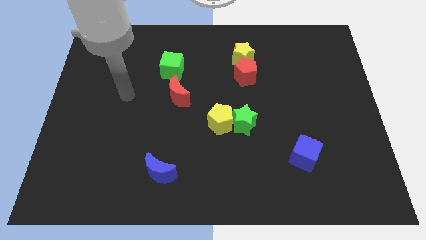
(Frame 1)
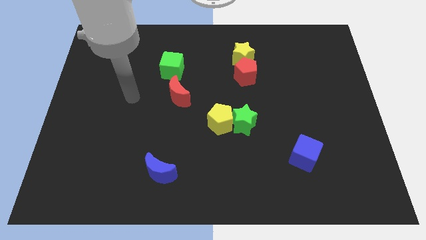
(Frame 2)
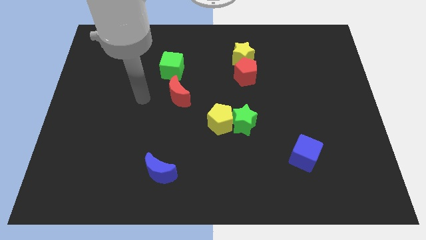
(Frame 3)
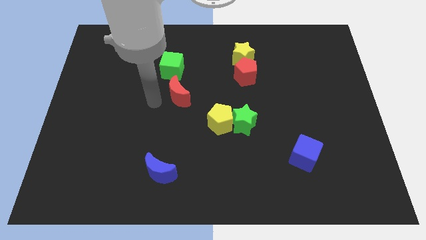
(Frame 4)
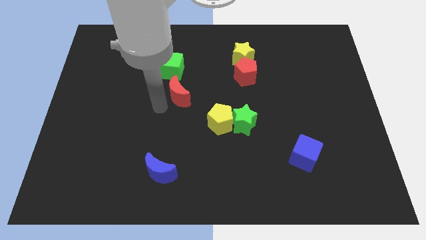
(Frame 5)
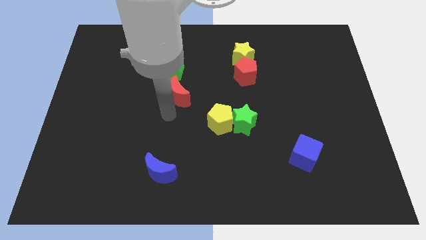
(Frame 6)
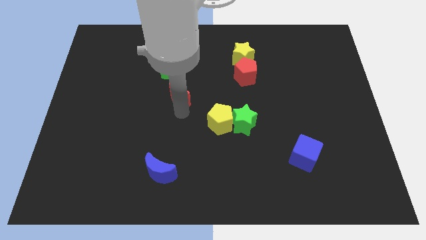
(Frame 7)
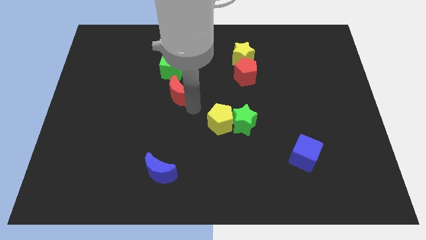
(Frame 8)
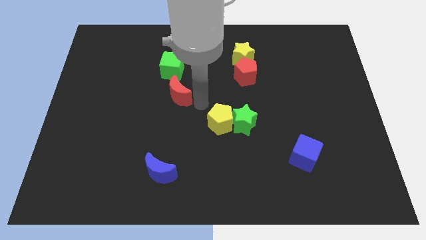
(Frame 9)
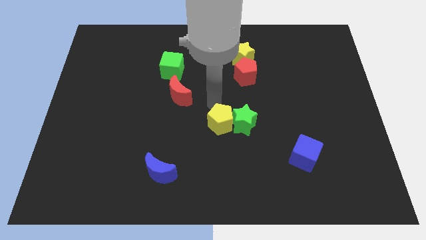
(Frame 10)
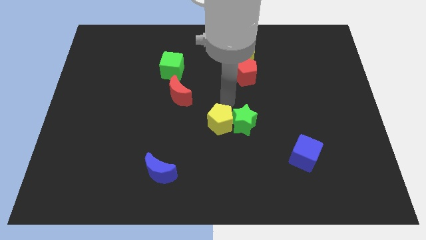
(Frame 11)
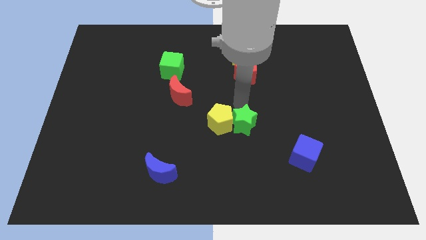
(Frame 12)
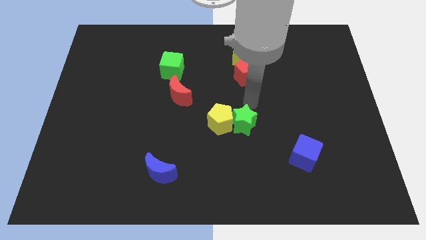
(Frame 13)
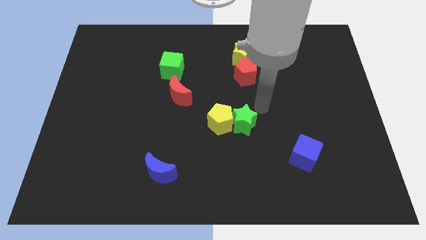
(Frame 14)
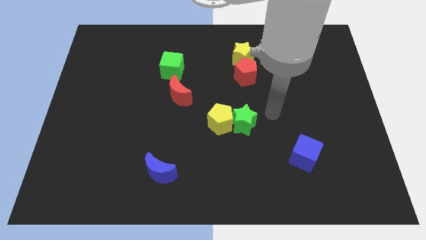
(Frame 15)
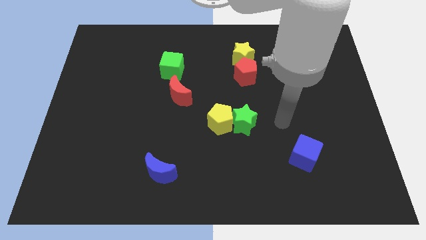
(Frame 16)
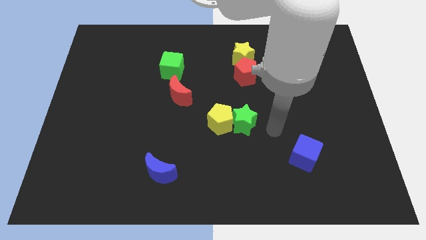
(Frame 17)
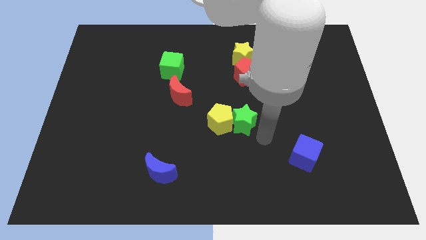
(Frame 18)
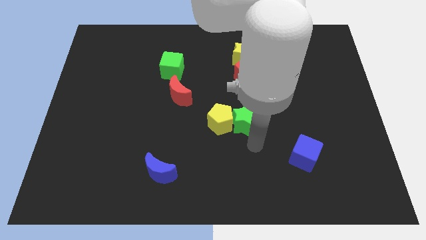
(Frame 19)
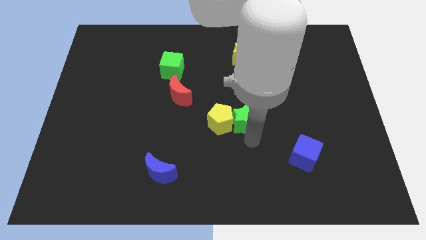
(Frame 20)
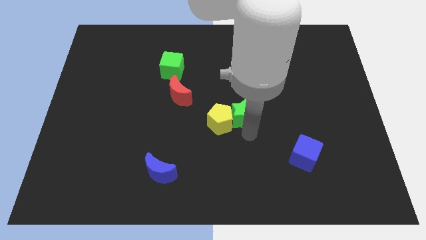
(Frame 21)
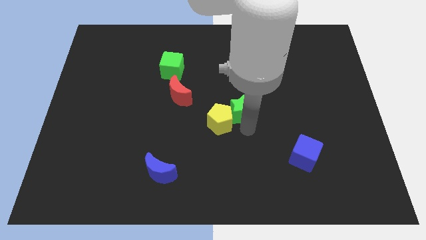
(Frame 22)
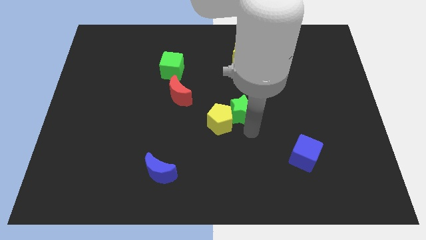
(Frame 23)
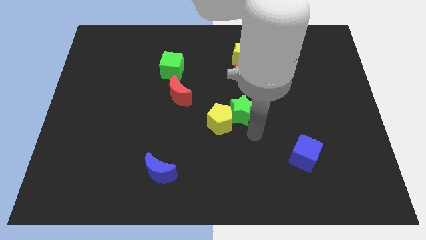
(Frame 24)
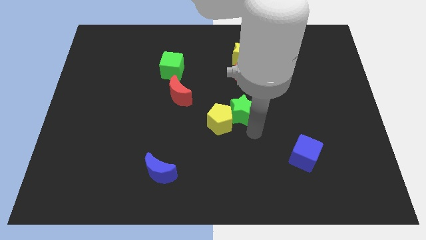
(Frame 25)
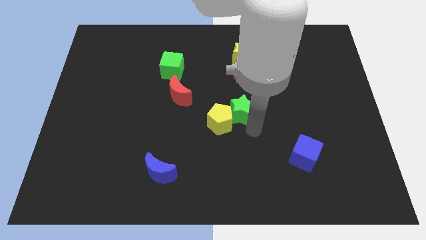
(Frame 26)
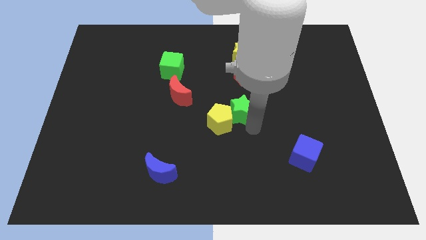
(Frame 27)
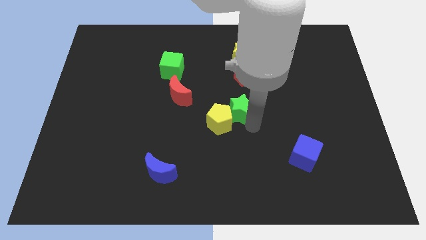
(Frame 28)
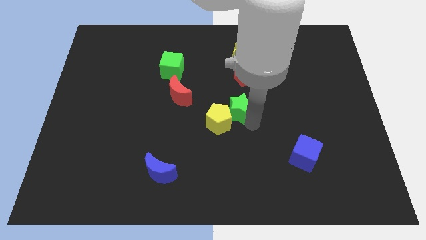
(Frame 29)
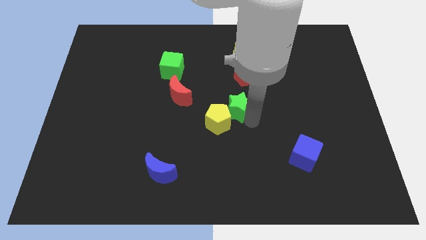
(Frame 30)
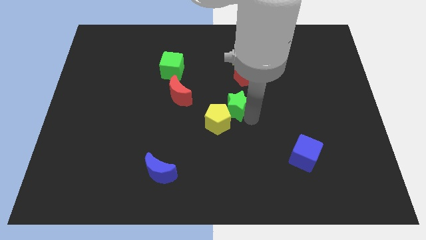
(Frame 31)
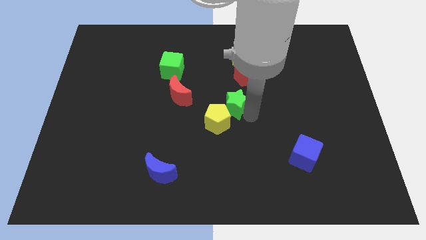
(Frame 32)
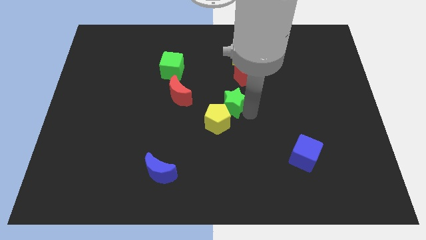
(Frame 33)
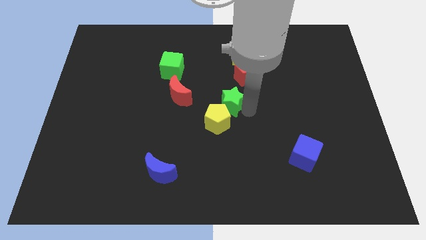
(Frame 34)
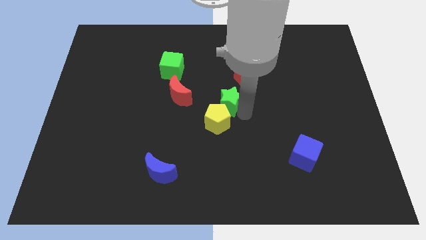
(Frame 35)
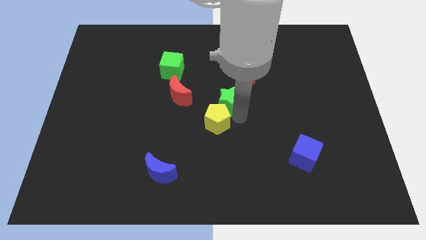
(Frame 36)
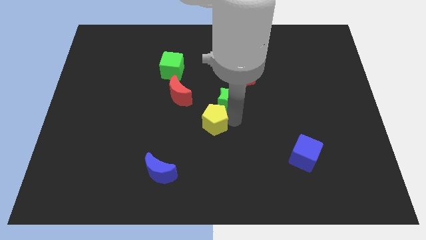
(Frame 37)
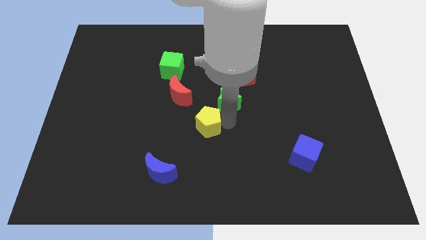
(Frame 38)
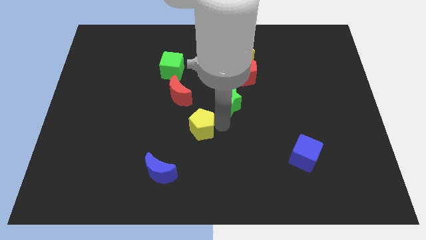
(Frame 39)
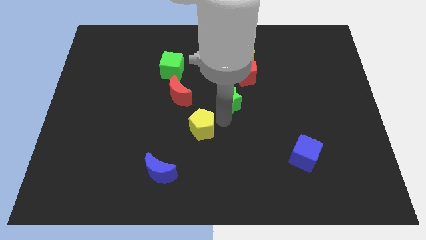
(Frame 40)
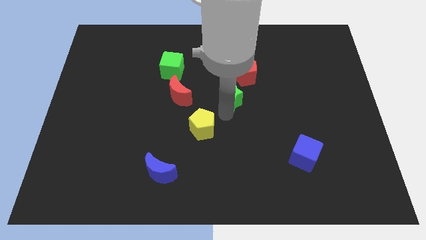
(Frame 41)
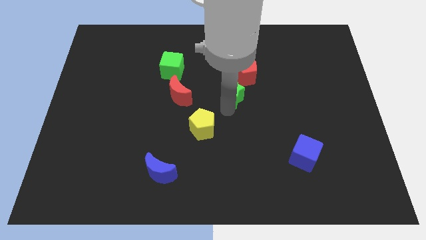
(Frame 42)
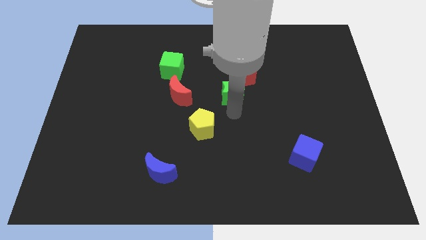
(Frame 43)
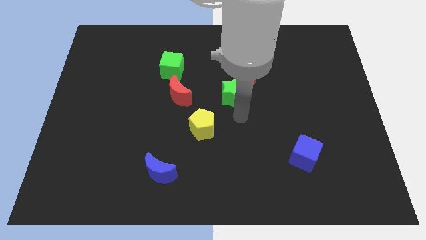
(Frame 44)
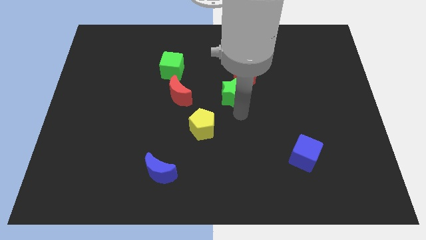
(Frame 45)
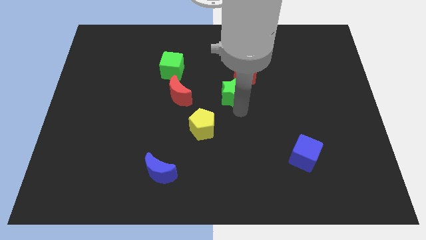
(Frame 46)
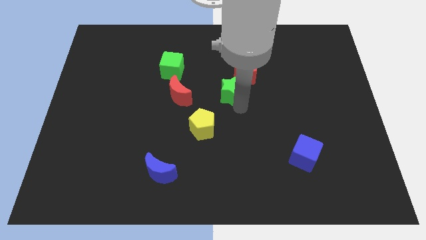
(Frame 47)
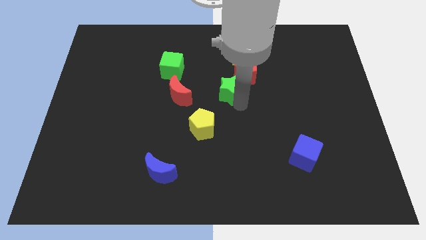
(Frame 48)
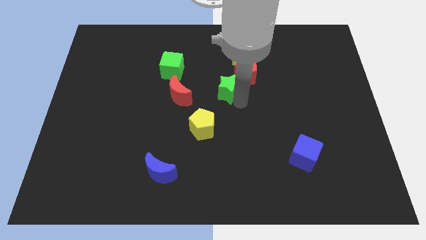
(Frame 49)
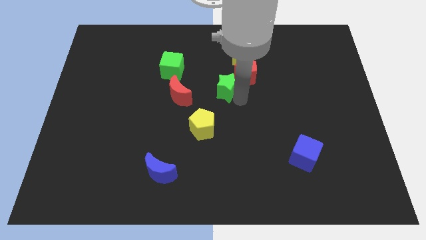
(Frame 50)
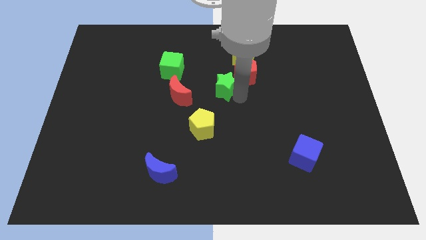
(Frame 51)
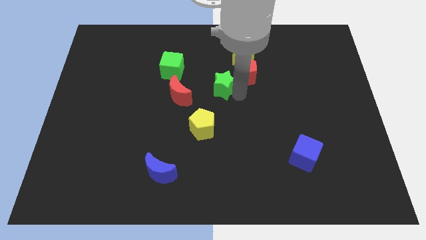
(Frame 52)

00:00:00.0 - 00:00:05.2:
slide the green star diagonally down and to the left of the yellow star

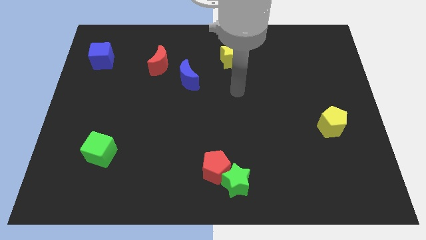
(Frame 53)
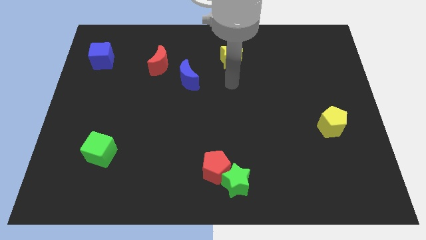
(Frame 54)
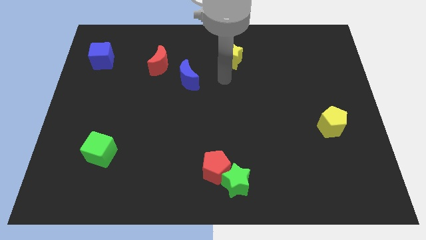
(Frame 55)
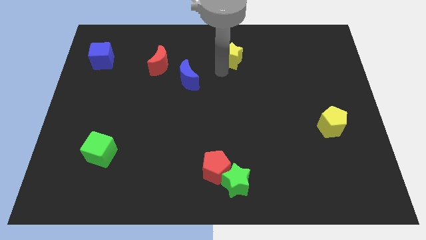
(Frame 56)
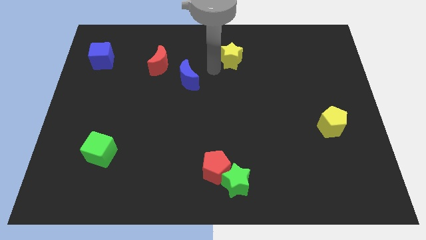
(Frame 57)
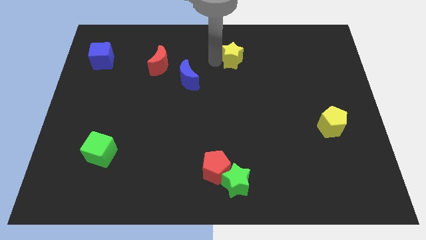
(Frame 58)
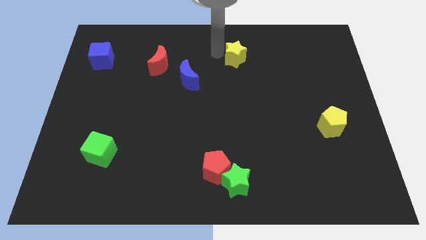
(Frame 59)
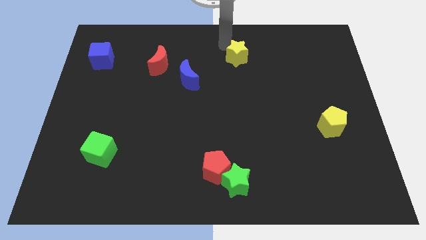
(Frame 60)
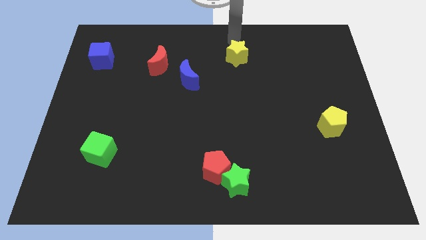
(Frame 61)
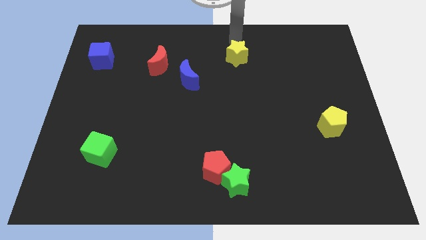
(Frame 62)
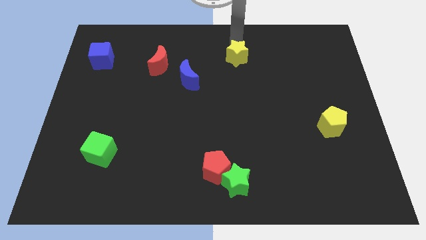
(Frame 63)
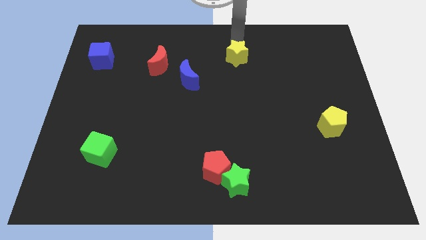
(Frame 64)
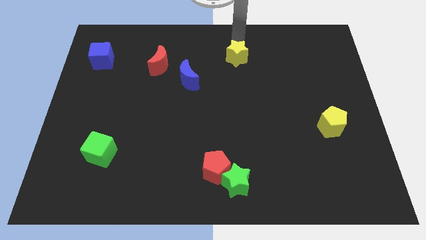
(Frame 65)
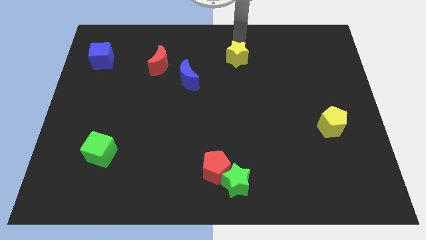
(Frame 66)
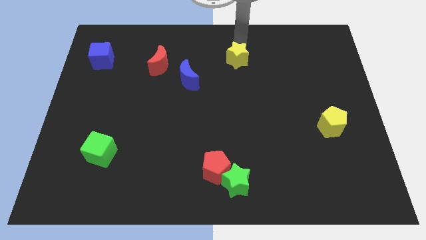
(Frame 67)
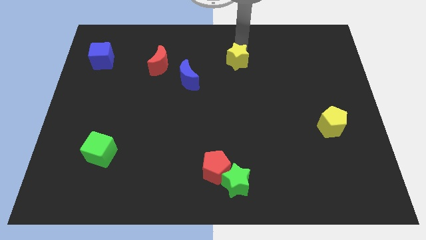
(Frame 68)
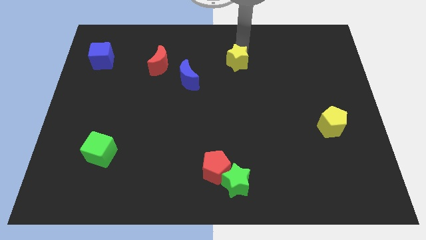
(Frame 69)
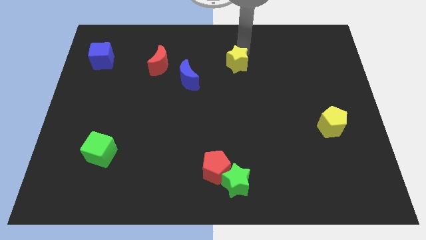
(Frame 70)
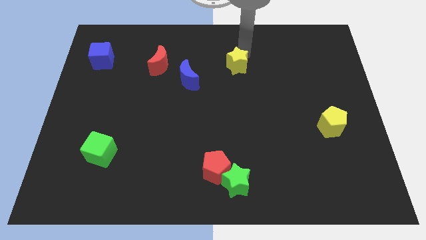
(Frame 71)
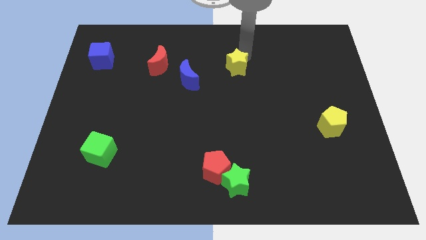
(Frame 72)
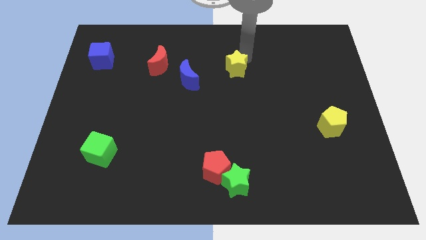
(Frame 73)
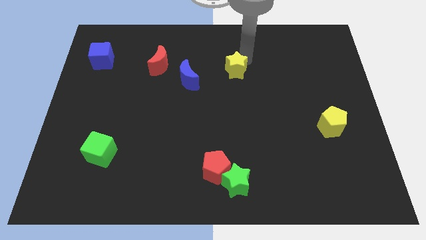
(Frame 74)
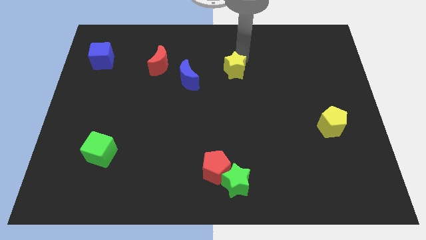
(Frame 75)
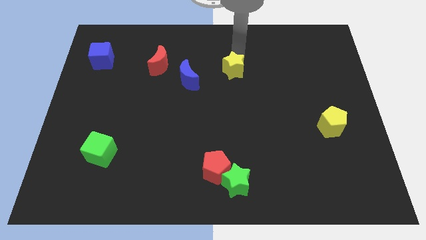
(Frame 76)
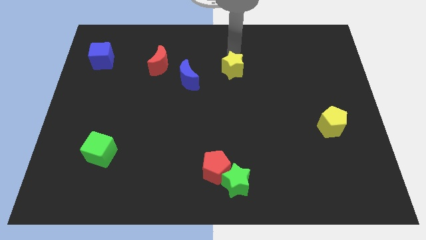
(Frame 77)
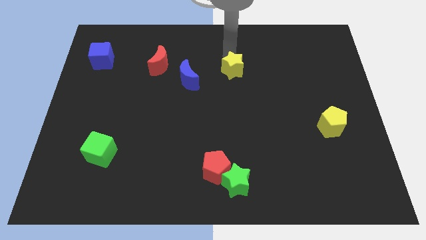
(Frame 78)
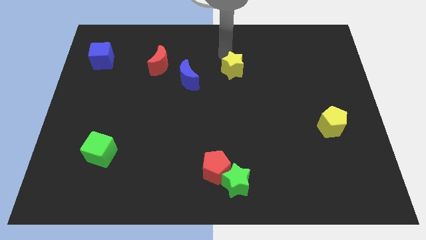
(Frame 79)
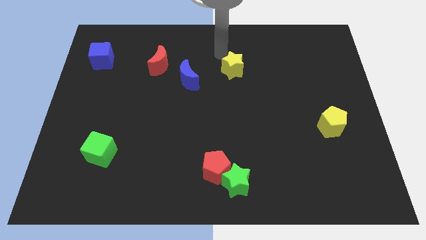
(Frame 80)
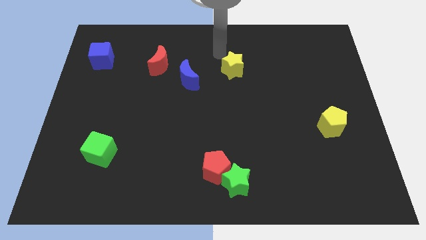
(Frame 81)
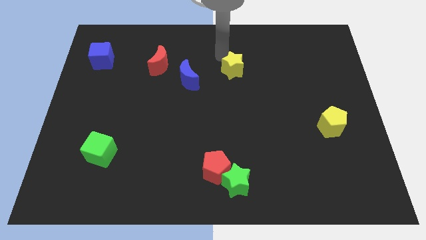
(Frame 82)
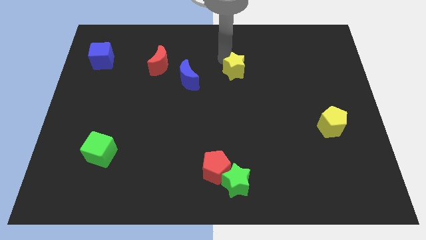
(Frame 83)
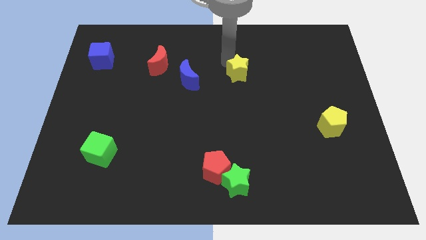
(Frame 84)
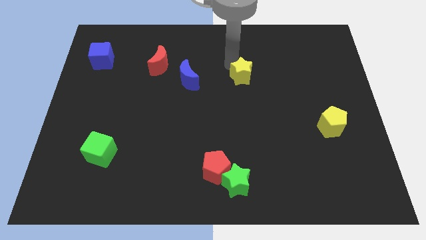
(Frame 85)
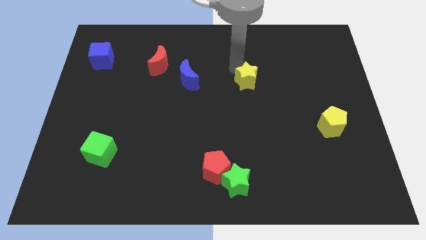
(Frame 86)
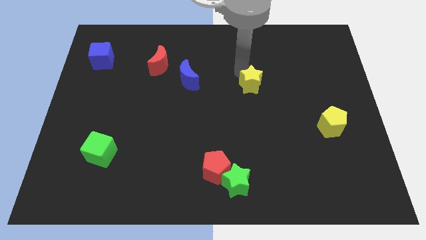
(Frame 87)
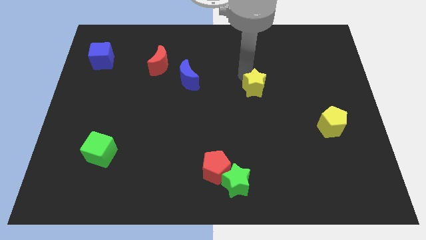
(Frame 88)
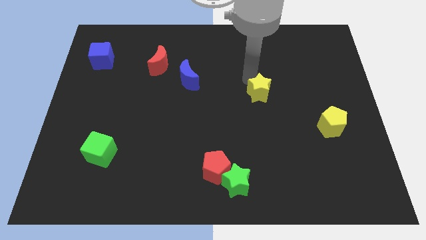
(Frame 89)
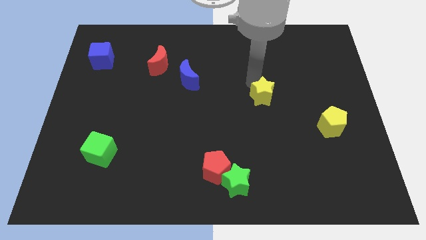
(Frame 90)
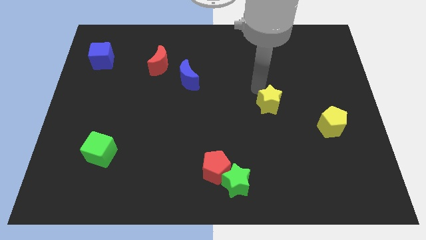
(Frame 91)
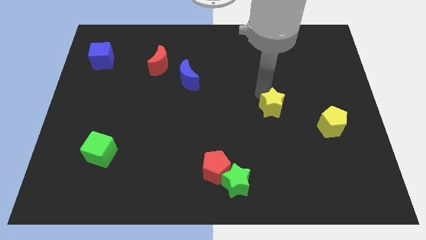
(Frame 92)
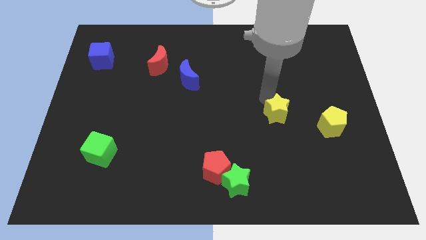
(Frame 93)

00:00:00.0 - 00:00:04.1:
move the yellow star left of the yellow pentagon
